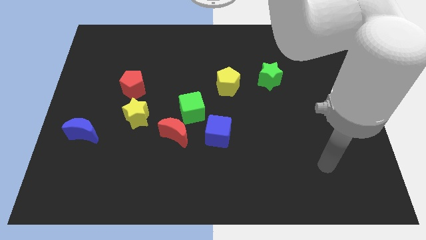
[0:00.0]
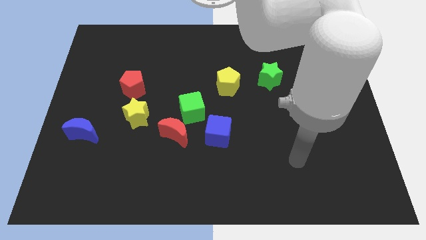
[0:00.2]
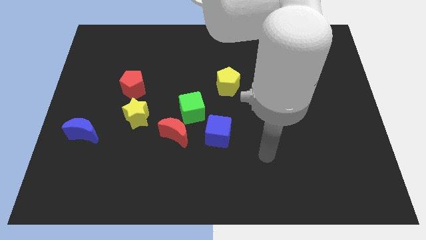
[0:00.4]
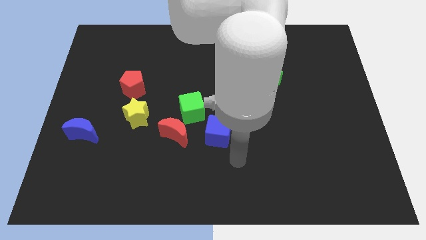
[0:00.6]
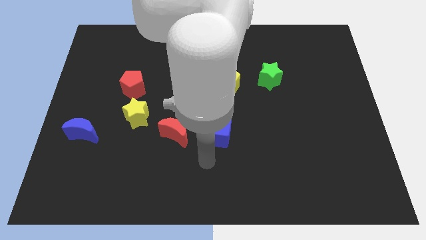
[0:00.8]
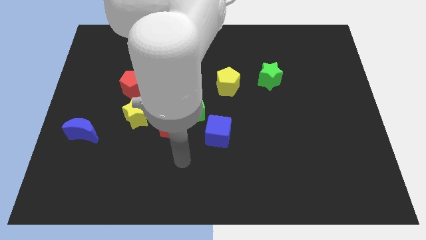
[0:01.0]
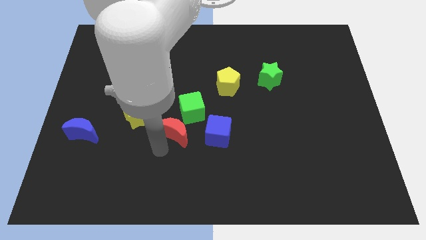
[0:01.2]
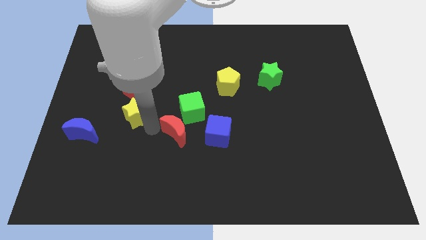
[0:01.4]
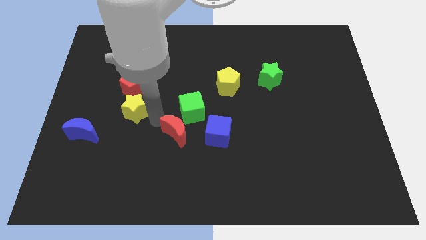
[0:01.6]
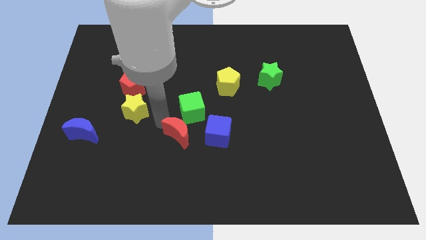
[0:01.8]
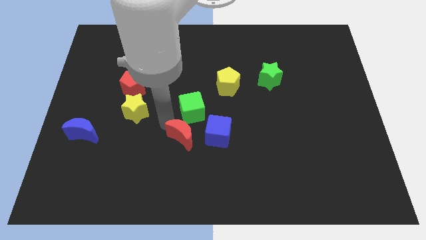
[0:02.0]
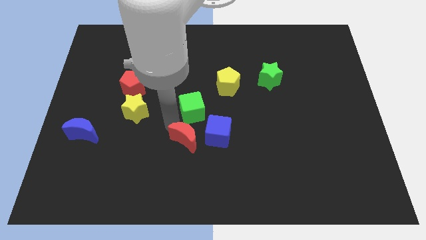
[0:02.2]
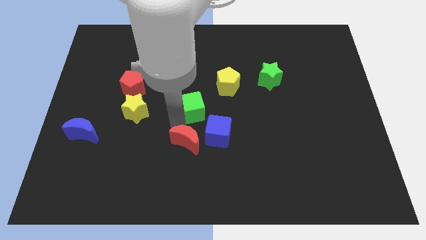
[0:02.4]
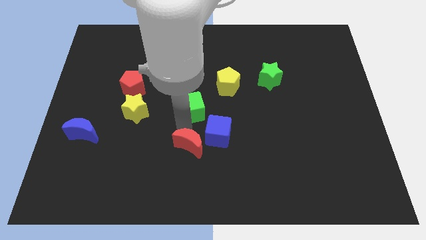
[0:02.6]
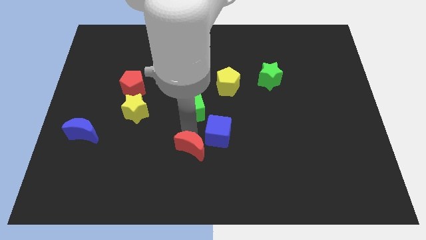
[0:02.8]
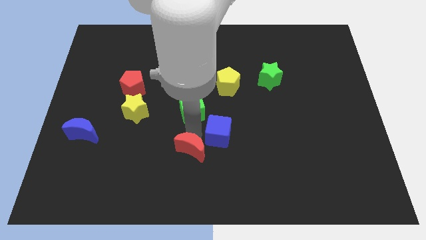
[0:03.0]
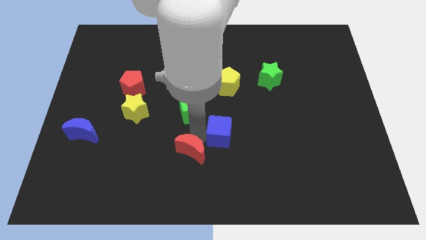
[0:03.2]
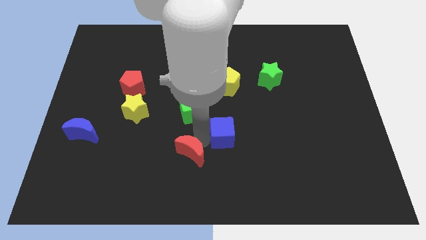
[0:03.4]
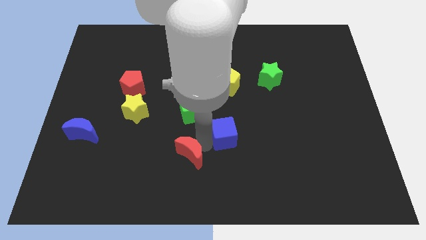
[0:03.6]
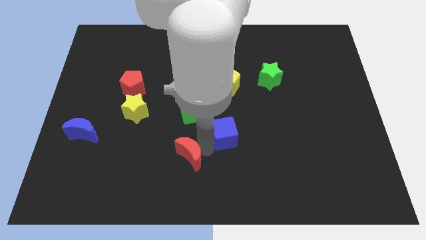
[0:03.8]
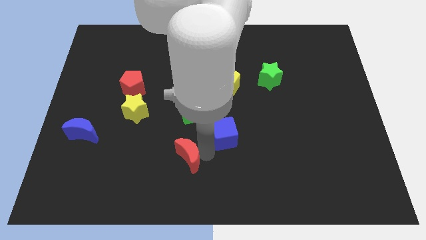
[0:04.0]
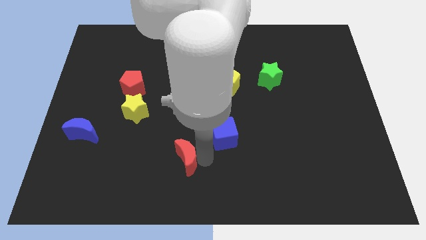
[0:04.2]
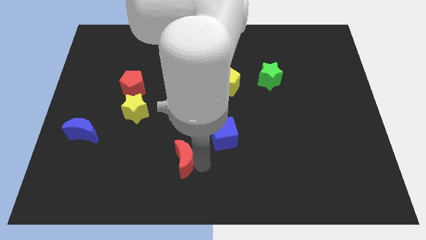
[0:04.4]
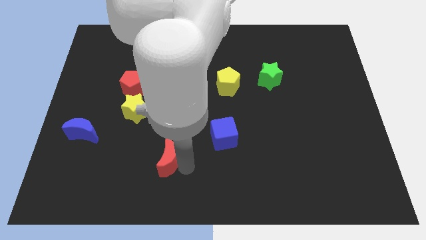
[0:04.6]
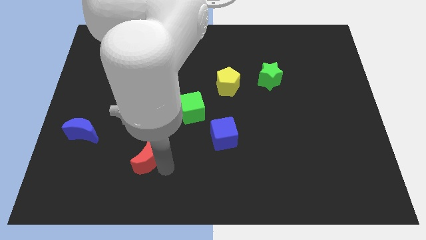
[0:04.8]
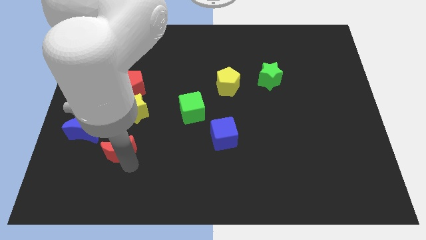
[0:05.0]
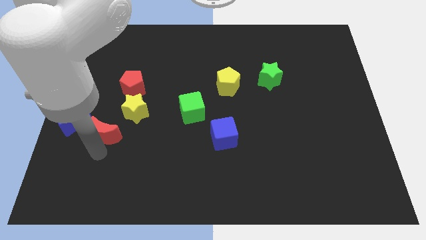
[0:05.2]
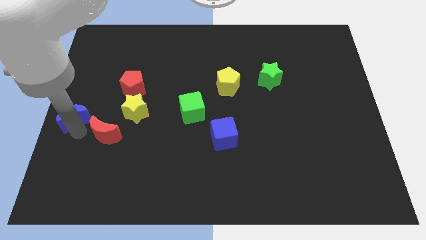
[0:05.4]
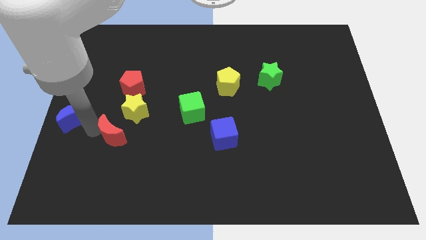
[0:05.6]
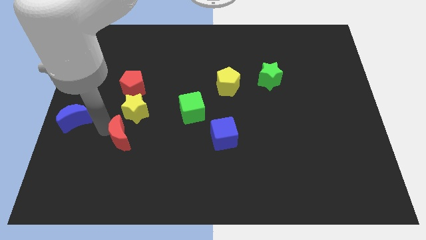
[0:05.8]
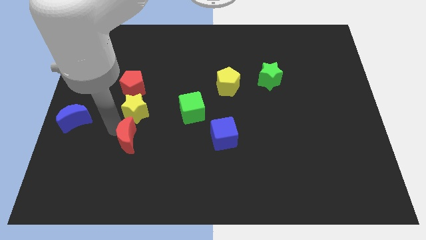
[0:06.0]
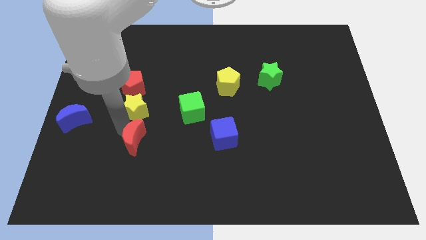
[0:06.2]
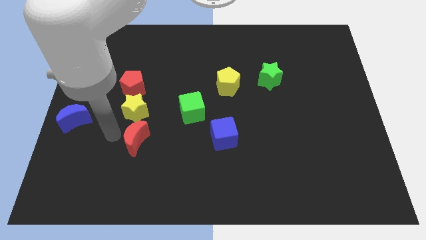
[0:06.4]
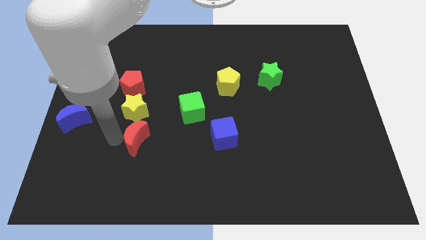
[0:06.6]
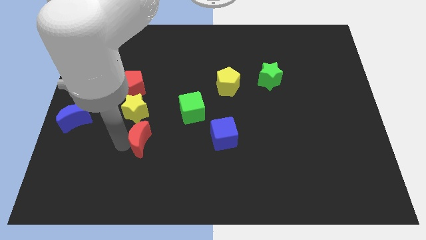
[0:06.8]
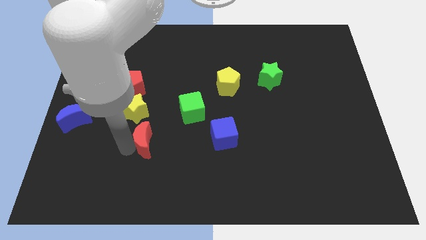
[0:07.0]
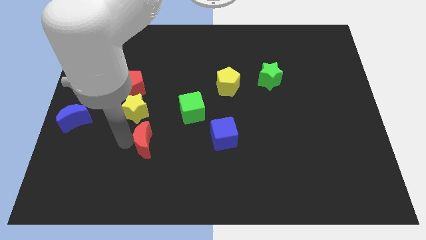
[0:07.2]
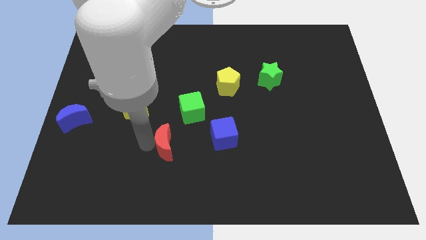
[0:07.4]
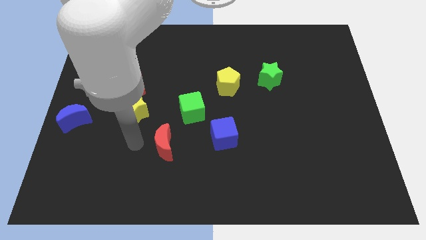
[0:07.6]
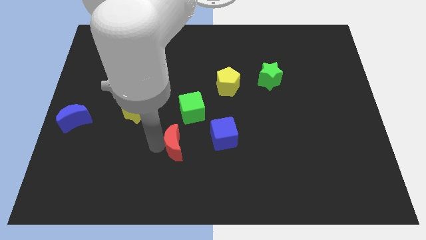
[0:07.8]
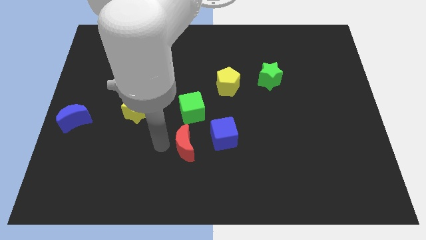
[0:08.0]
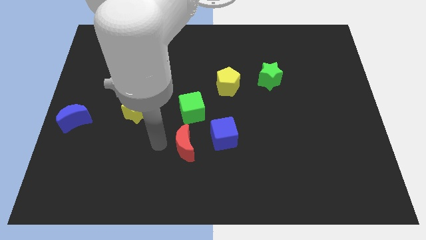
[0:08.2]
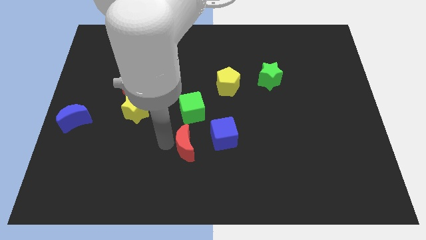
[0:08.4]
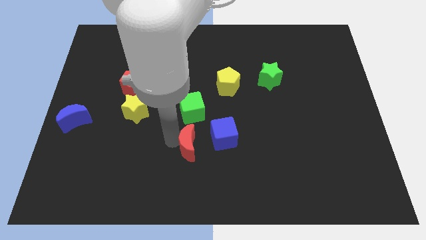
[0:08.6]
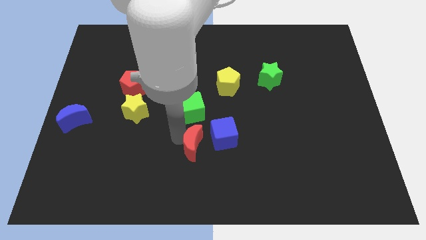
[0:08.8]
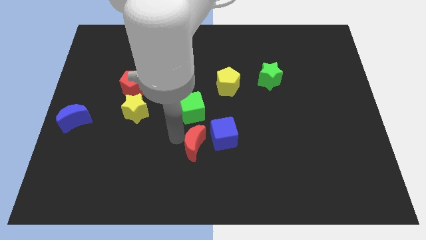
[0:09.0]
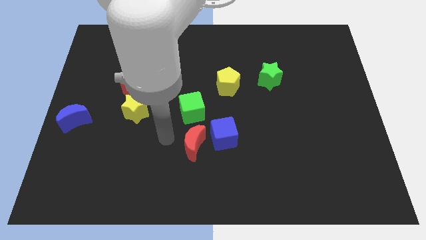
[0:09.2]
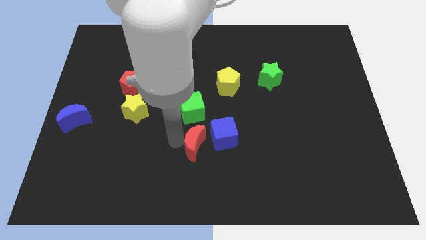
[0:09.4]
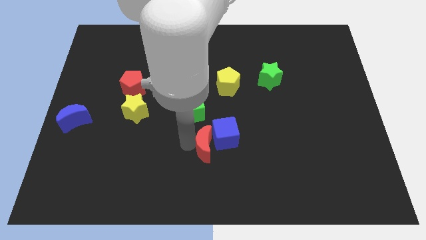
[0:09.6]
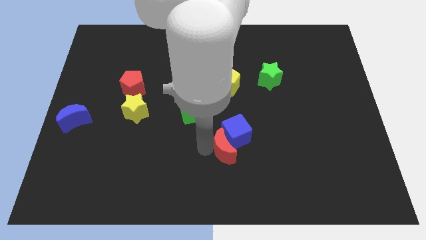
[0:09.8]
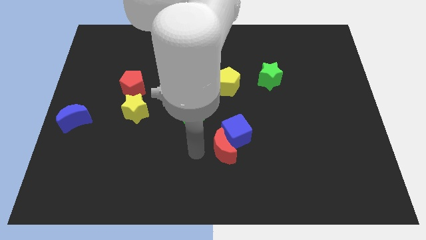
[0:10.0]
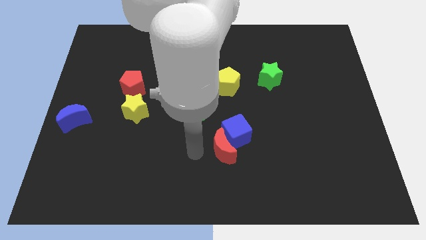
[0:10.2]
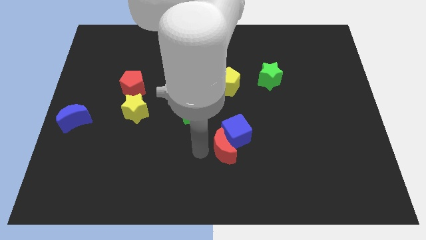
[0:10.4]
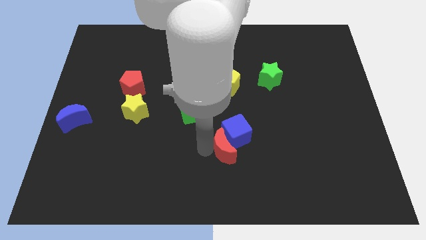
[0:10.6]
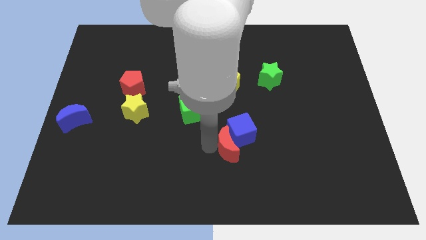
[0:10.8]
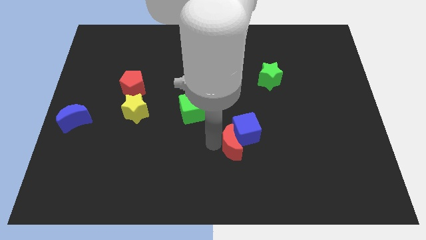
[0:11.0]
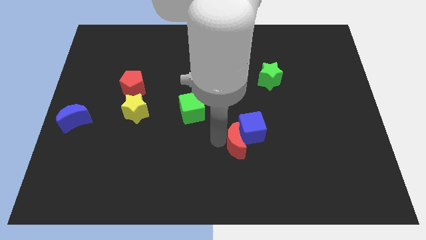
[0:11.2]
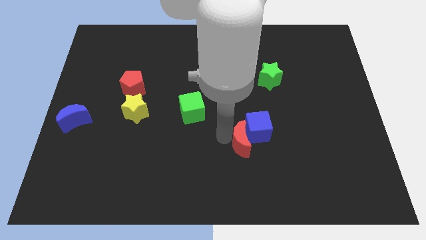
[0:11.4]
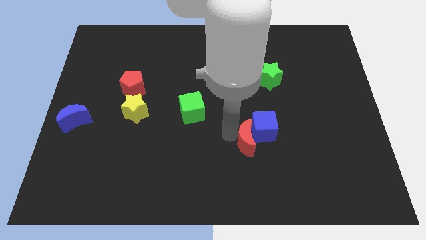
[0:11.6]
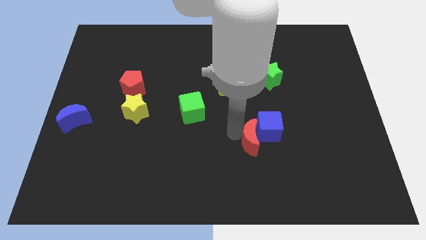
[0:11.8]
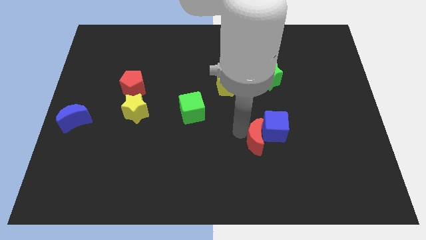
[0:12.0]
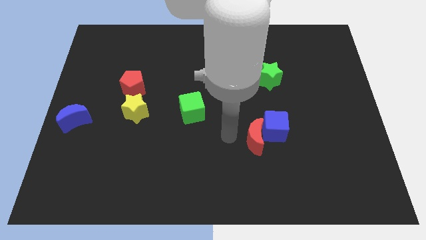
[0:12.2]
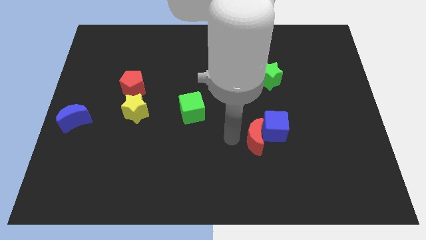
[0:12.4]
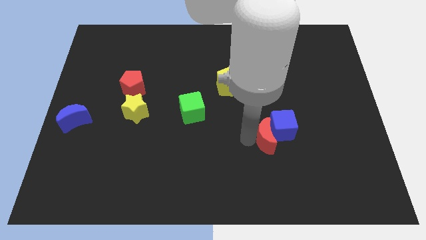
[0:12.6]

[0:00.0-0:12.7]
slide the red moon right

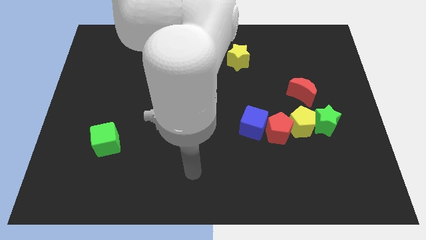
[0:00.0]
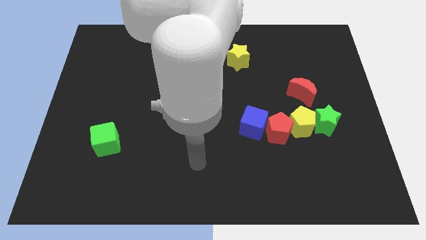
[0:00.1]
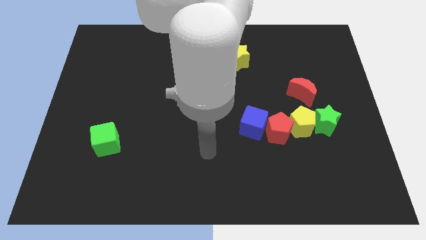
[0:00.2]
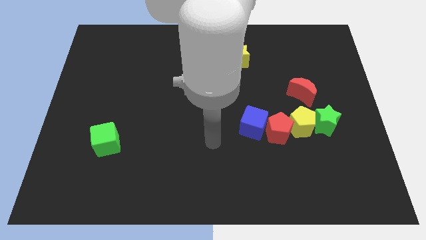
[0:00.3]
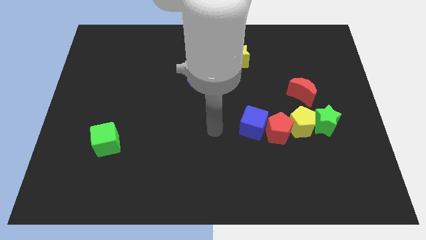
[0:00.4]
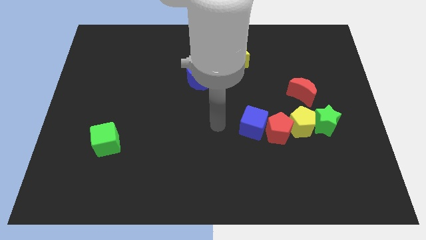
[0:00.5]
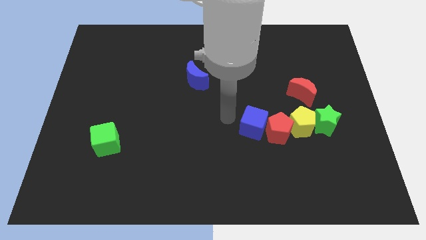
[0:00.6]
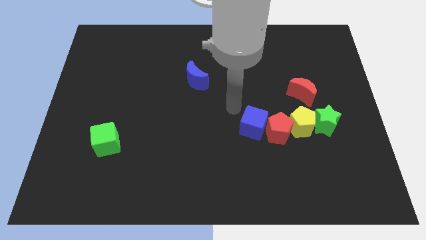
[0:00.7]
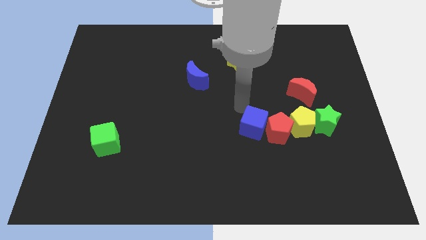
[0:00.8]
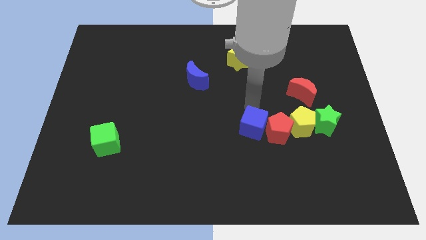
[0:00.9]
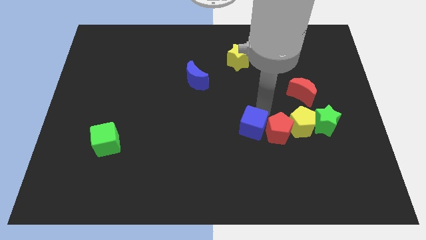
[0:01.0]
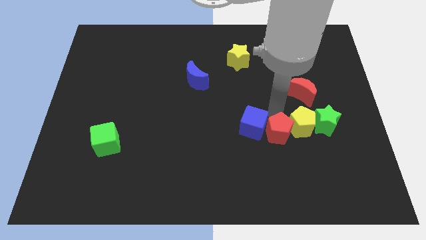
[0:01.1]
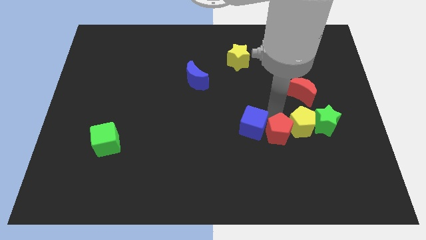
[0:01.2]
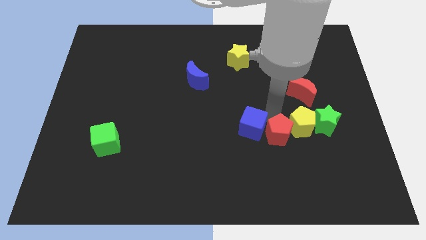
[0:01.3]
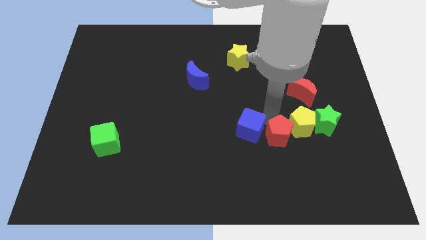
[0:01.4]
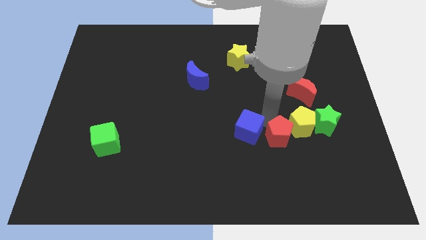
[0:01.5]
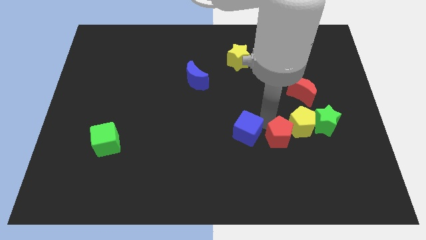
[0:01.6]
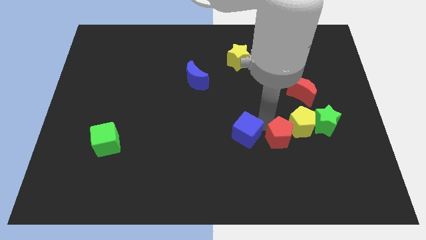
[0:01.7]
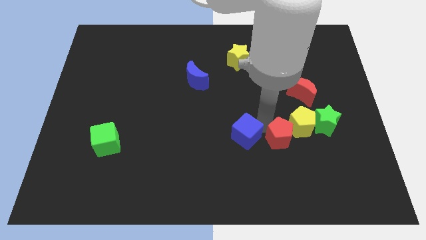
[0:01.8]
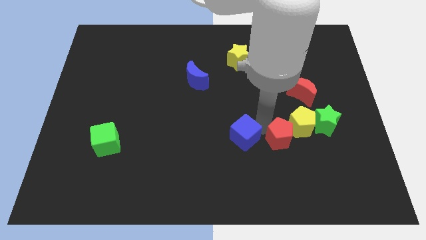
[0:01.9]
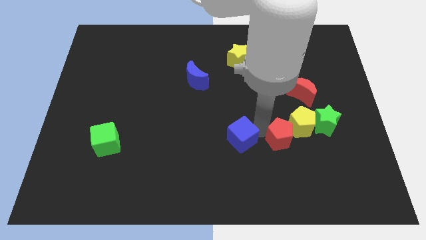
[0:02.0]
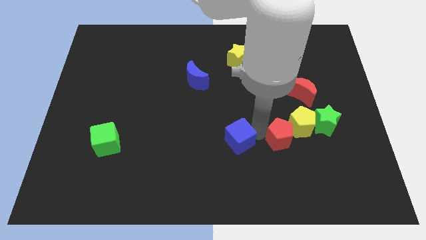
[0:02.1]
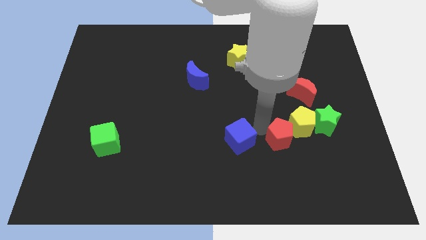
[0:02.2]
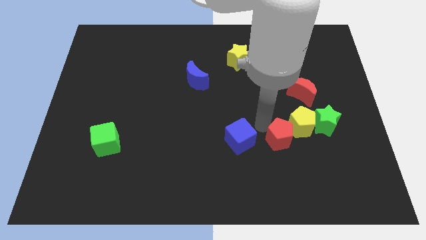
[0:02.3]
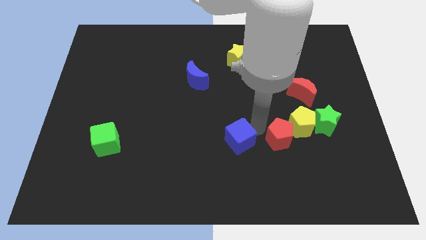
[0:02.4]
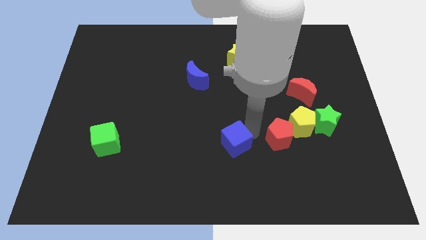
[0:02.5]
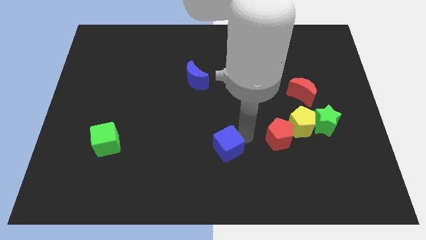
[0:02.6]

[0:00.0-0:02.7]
push the blue cube a little downwards and to the left
